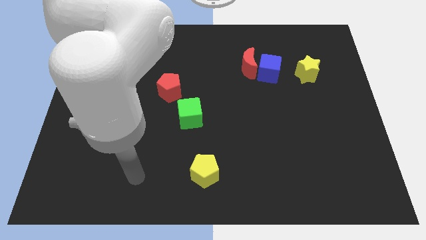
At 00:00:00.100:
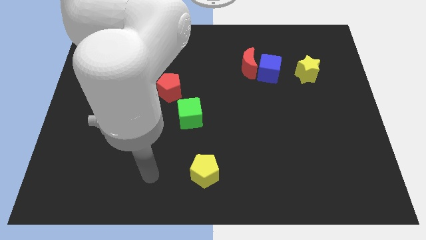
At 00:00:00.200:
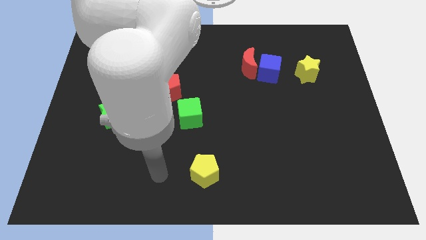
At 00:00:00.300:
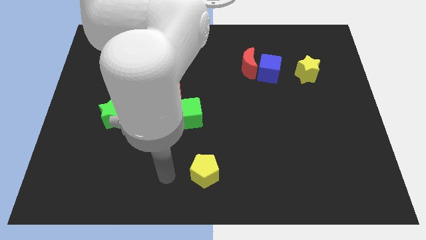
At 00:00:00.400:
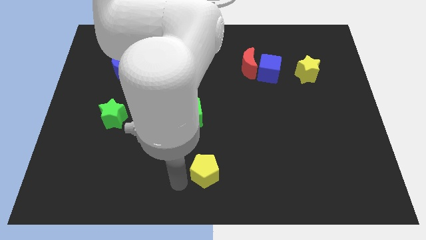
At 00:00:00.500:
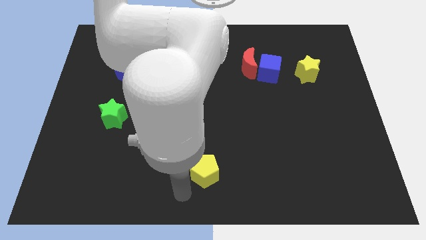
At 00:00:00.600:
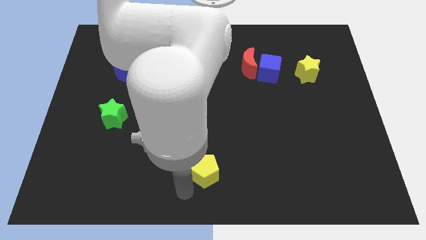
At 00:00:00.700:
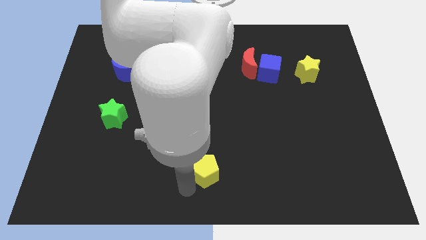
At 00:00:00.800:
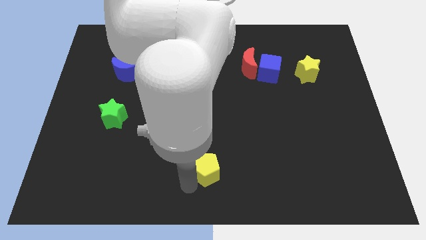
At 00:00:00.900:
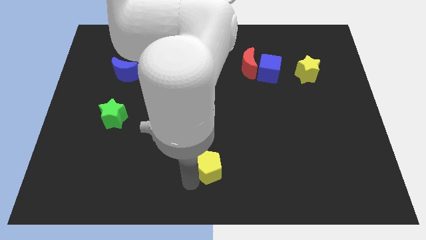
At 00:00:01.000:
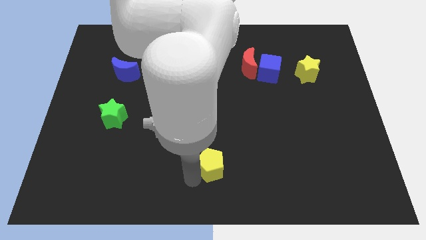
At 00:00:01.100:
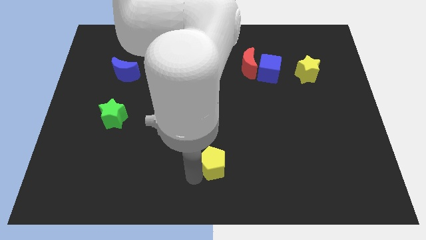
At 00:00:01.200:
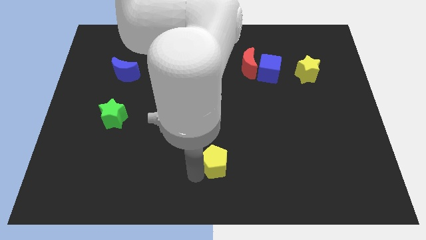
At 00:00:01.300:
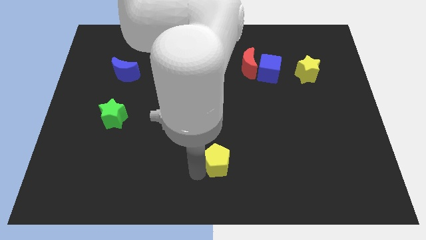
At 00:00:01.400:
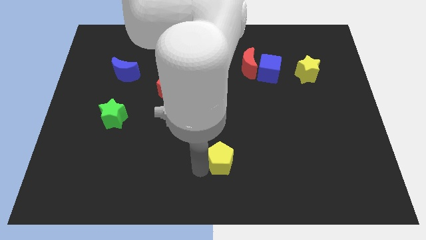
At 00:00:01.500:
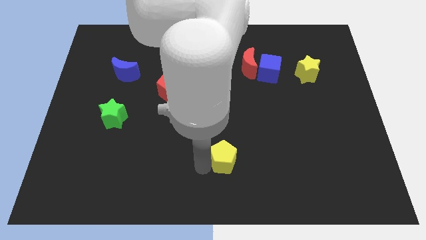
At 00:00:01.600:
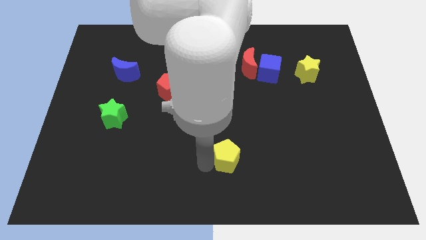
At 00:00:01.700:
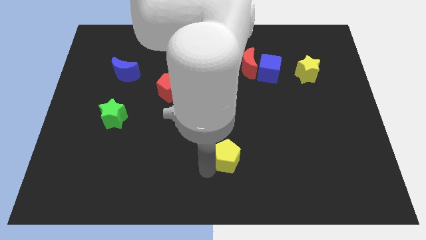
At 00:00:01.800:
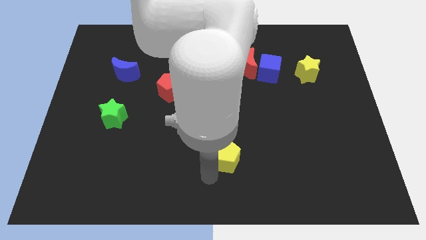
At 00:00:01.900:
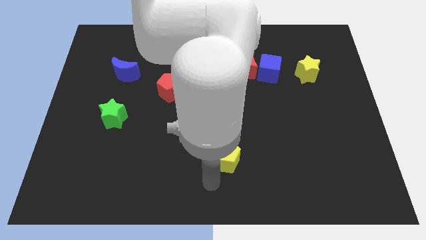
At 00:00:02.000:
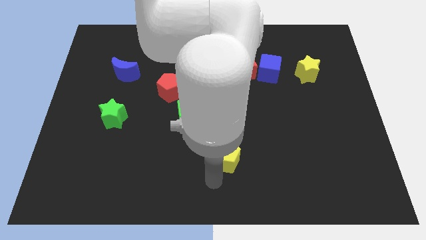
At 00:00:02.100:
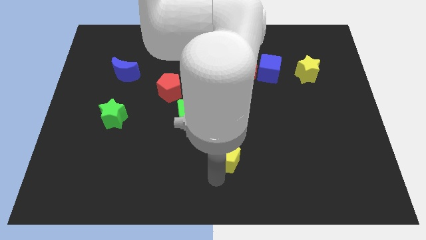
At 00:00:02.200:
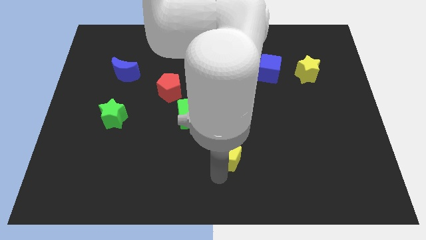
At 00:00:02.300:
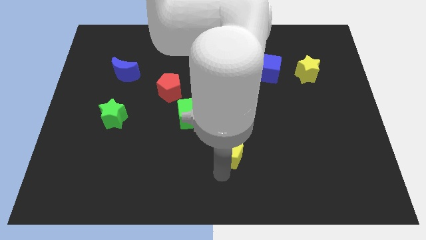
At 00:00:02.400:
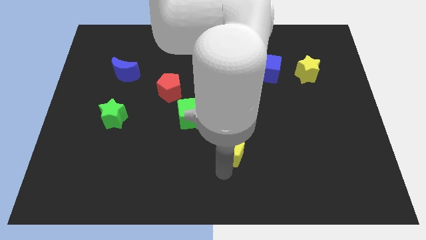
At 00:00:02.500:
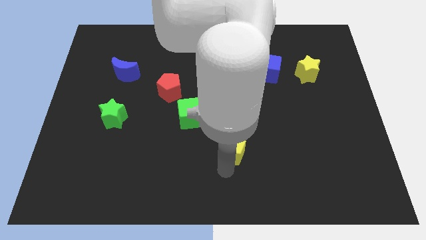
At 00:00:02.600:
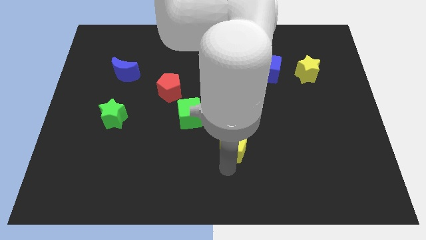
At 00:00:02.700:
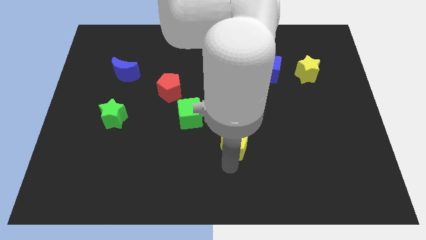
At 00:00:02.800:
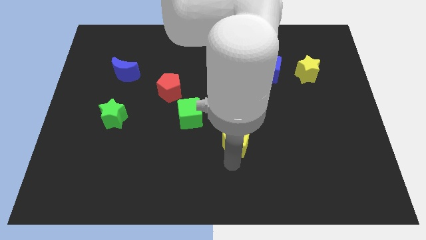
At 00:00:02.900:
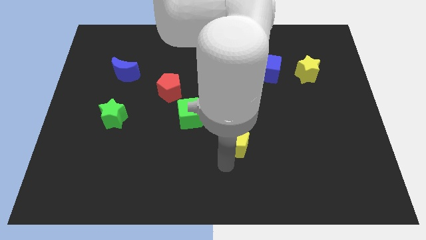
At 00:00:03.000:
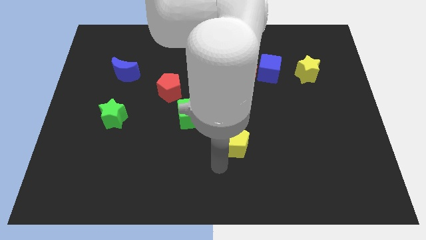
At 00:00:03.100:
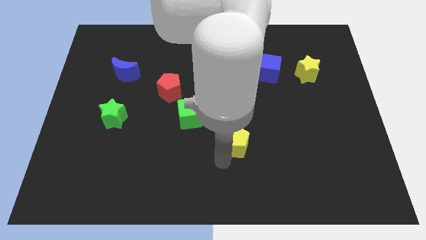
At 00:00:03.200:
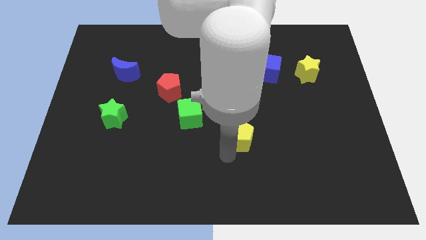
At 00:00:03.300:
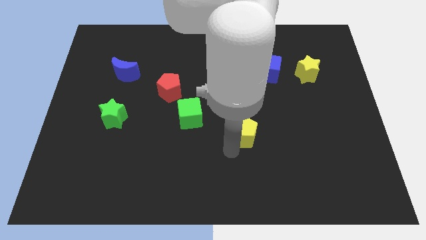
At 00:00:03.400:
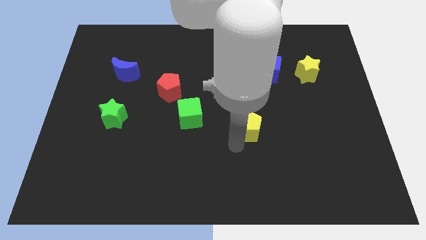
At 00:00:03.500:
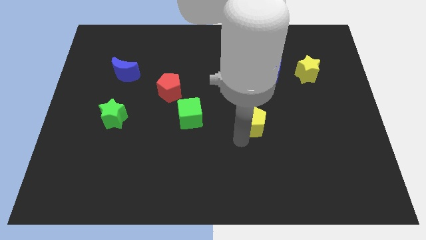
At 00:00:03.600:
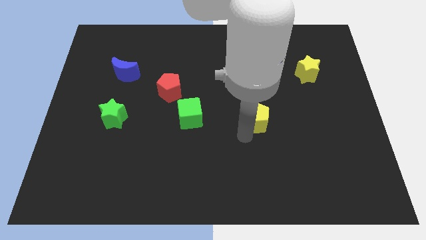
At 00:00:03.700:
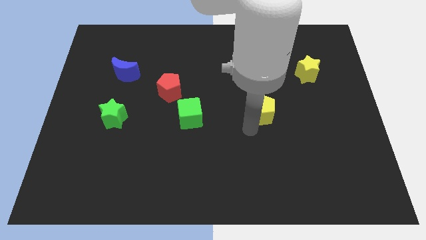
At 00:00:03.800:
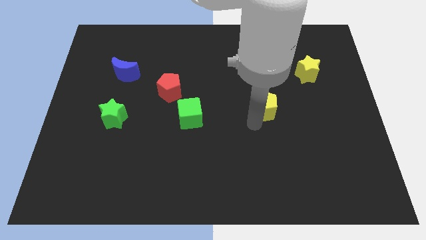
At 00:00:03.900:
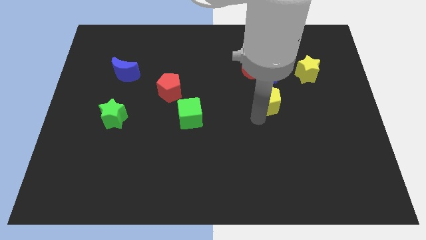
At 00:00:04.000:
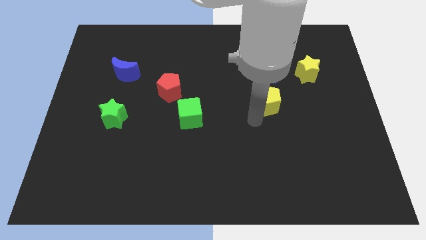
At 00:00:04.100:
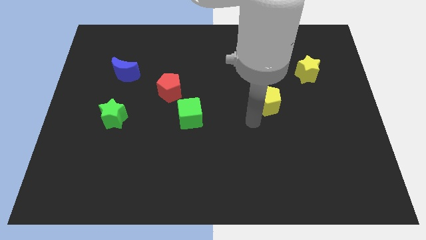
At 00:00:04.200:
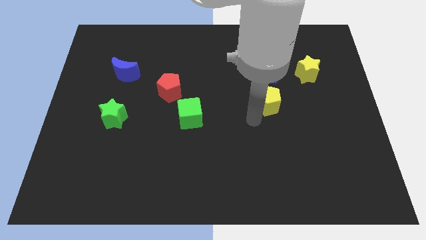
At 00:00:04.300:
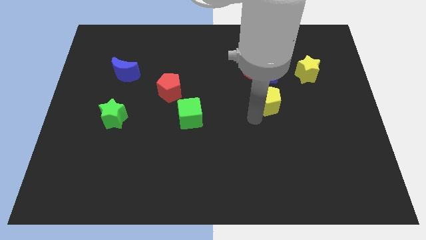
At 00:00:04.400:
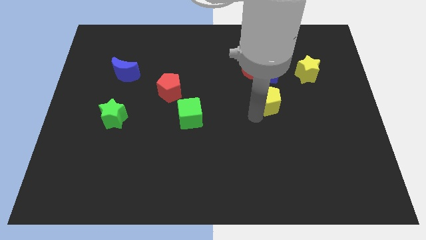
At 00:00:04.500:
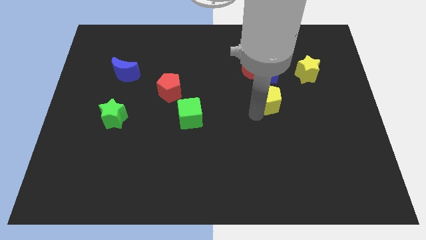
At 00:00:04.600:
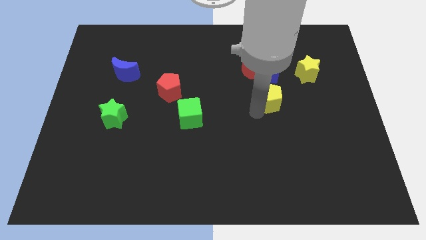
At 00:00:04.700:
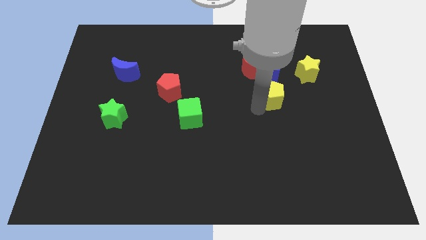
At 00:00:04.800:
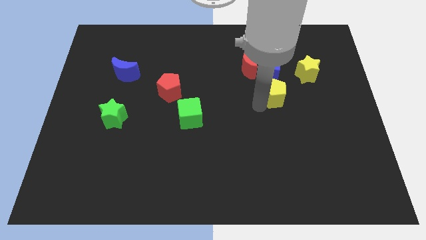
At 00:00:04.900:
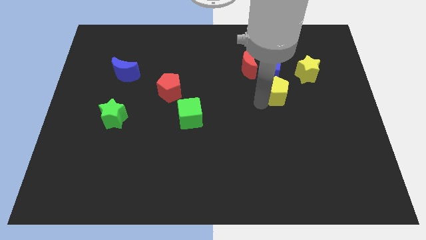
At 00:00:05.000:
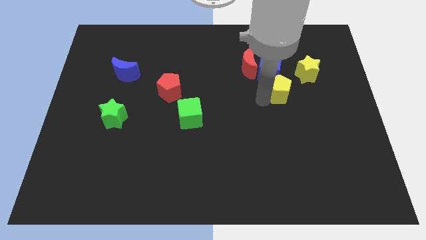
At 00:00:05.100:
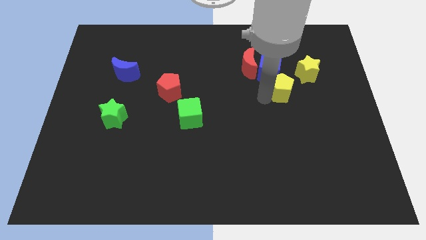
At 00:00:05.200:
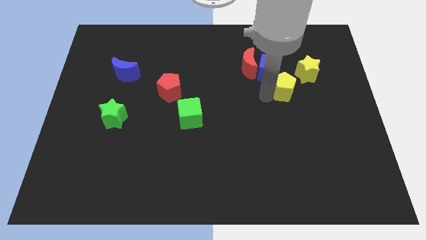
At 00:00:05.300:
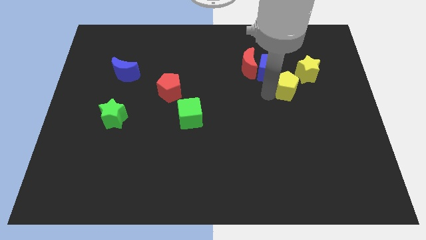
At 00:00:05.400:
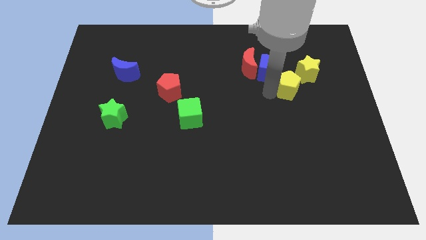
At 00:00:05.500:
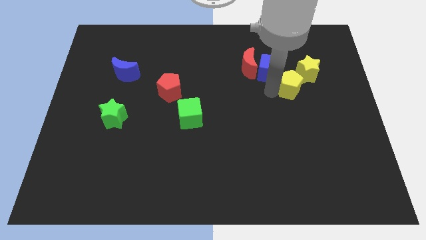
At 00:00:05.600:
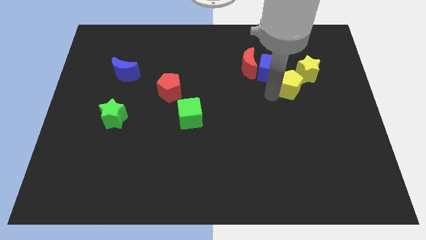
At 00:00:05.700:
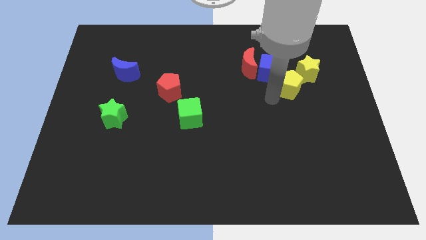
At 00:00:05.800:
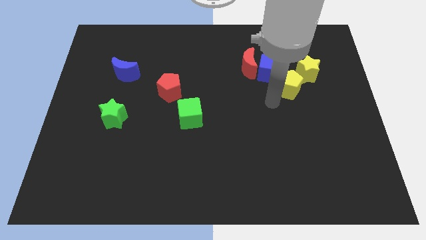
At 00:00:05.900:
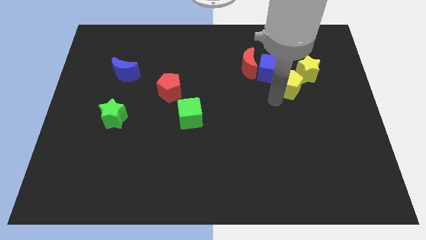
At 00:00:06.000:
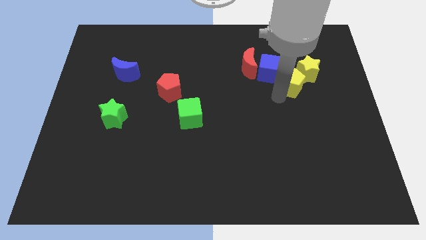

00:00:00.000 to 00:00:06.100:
slide the yellow pentagon to the yellow star

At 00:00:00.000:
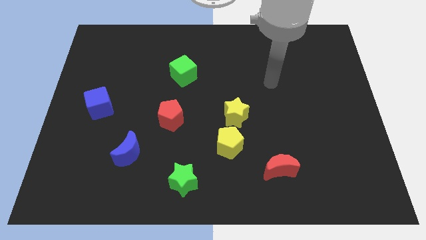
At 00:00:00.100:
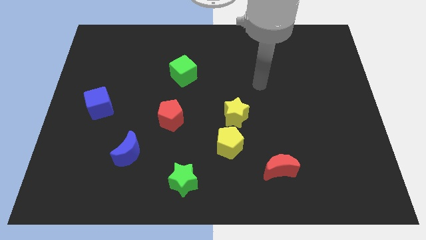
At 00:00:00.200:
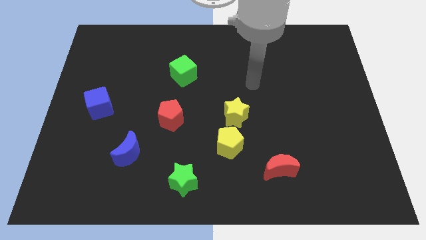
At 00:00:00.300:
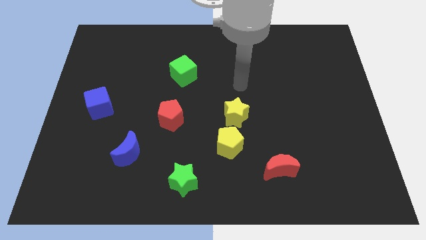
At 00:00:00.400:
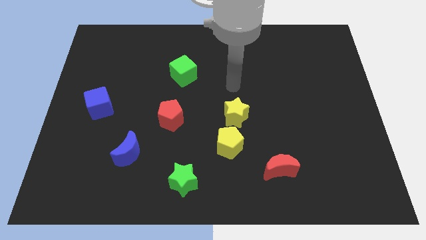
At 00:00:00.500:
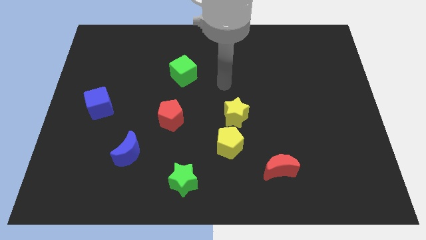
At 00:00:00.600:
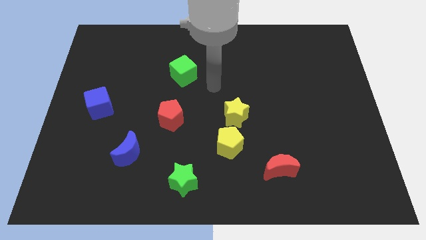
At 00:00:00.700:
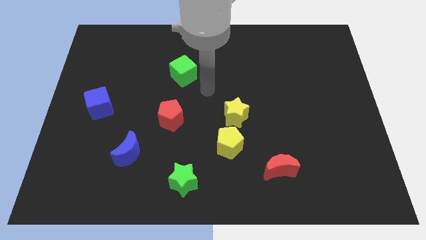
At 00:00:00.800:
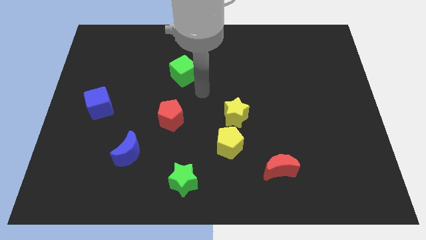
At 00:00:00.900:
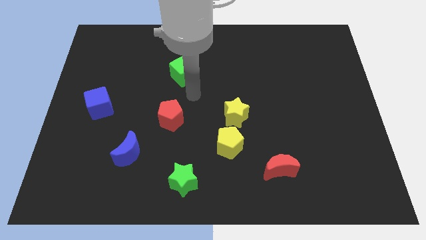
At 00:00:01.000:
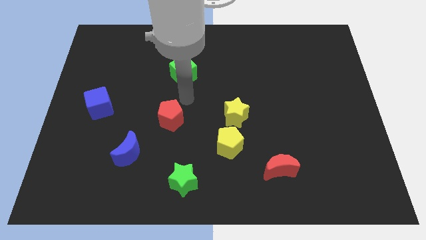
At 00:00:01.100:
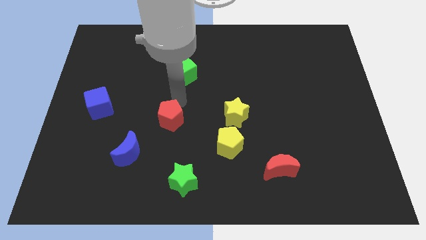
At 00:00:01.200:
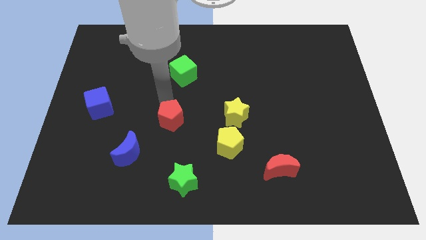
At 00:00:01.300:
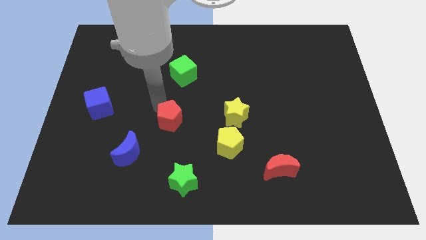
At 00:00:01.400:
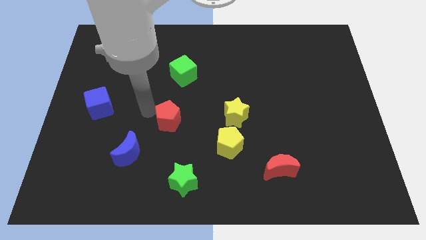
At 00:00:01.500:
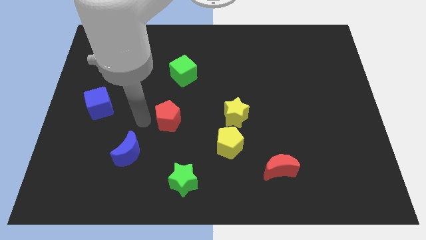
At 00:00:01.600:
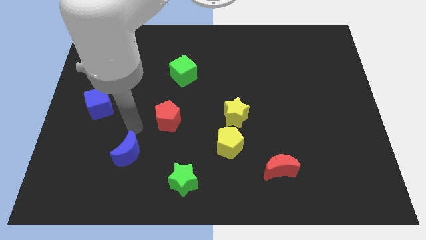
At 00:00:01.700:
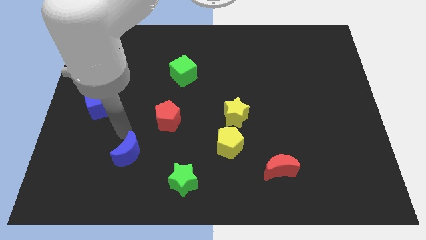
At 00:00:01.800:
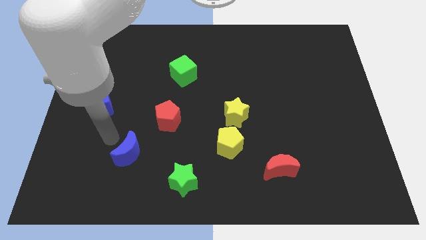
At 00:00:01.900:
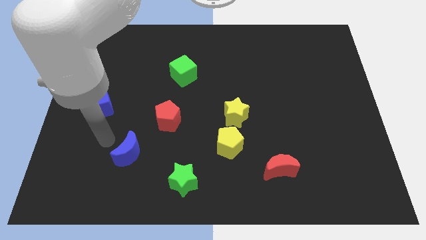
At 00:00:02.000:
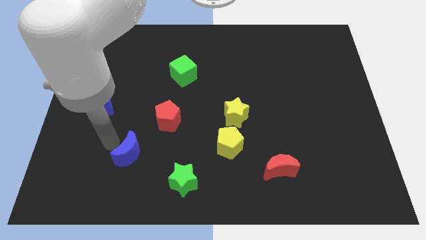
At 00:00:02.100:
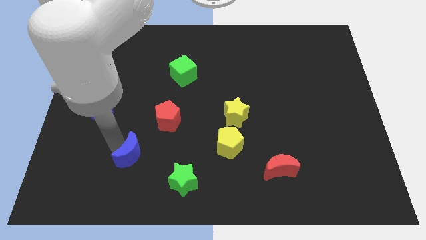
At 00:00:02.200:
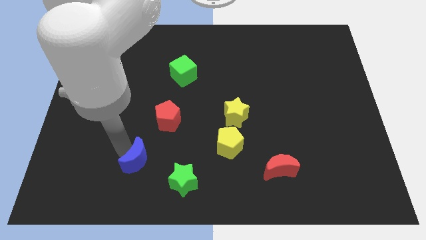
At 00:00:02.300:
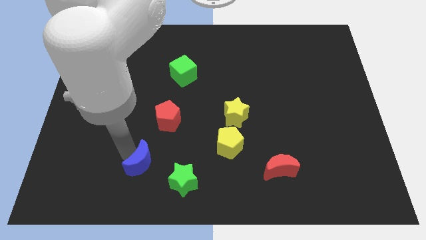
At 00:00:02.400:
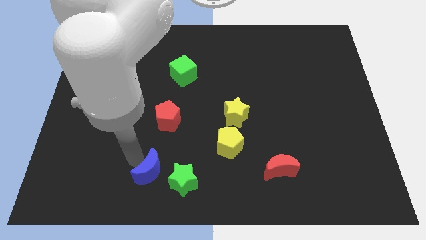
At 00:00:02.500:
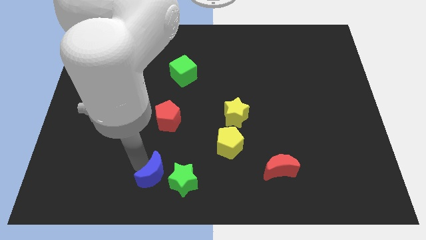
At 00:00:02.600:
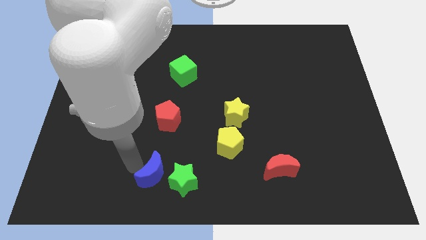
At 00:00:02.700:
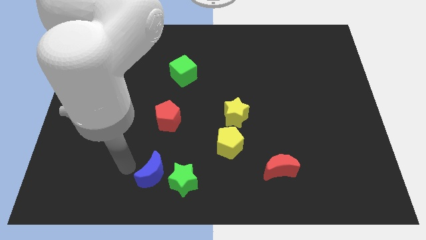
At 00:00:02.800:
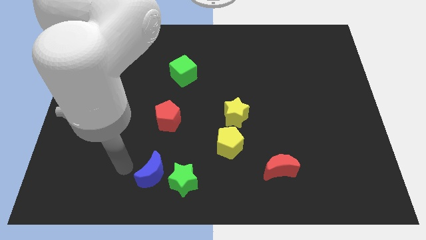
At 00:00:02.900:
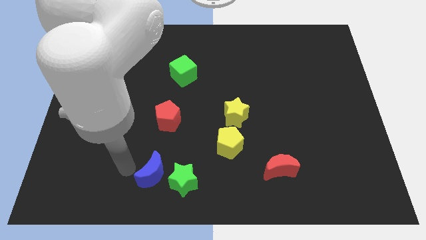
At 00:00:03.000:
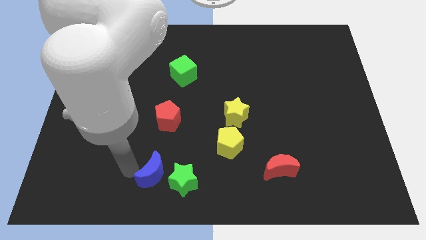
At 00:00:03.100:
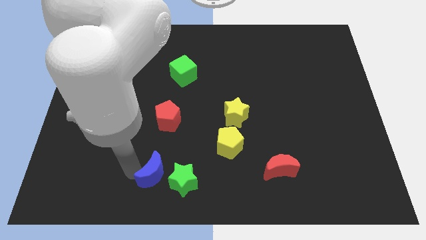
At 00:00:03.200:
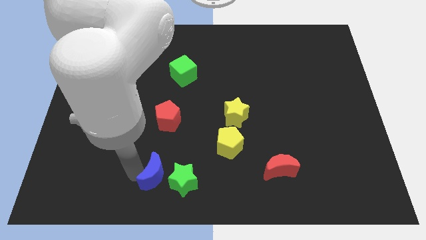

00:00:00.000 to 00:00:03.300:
slide the blue moon towards the green star
